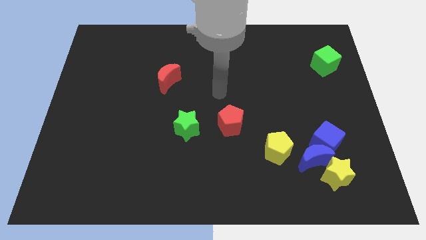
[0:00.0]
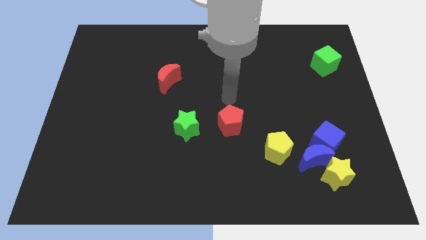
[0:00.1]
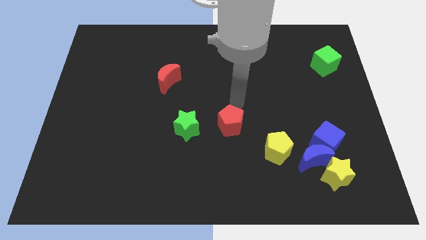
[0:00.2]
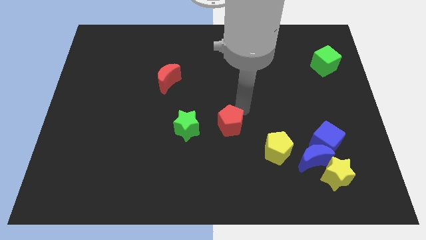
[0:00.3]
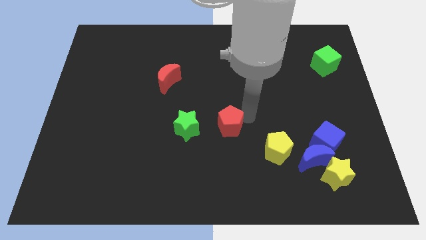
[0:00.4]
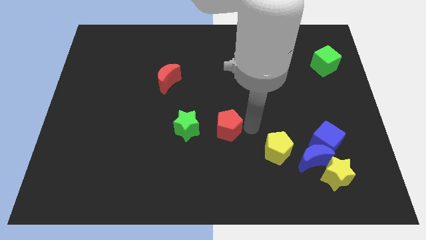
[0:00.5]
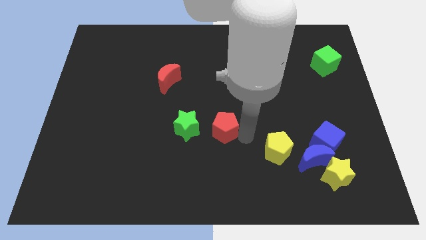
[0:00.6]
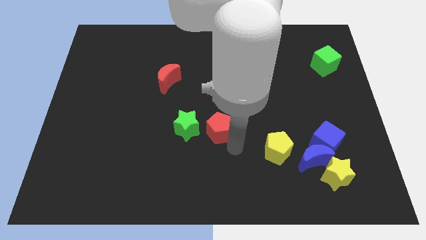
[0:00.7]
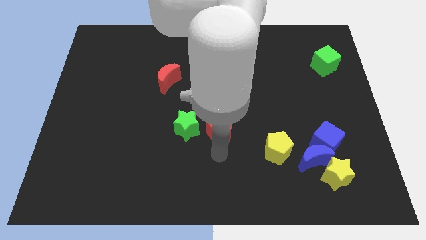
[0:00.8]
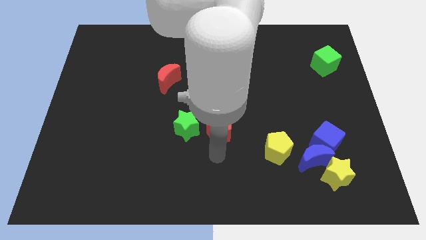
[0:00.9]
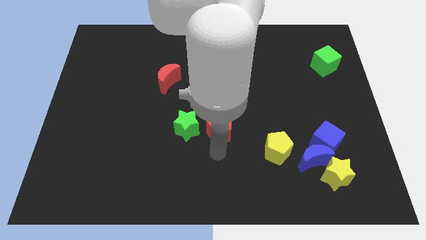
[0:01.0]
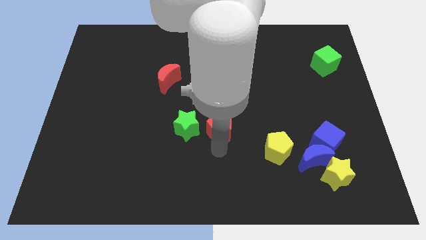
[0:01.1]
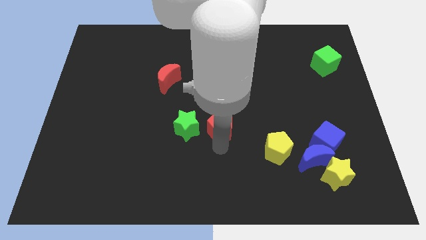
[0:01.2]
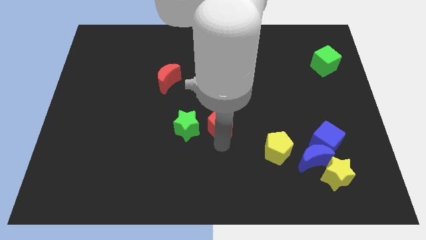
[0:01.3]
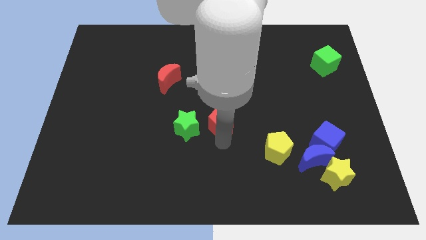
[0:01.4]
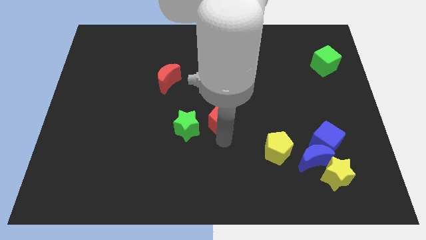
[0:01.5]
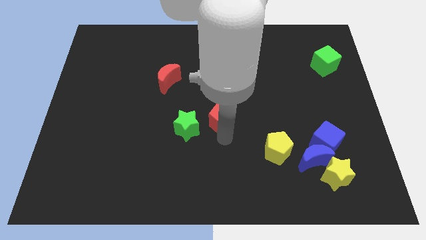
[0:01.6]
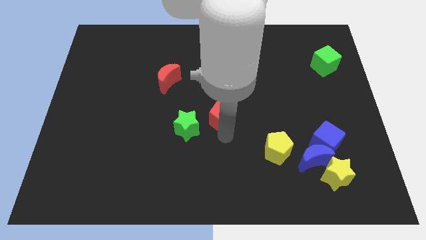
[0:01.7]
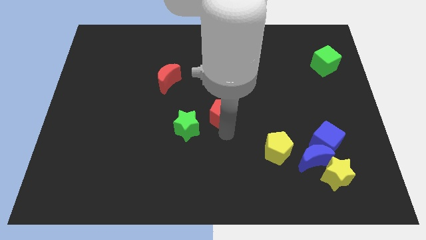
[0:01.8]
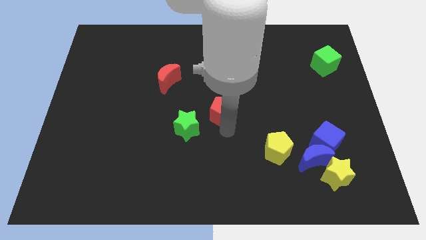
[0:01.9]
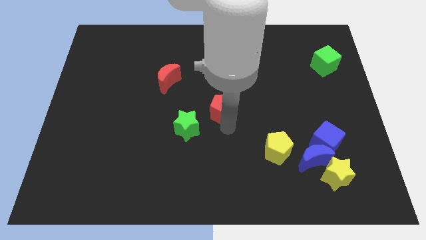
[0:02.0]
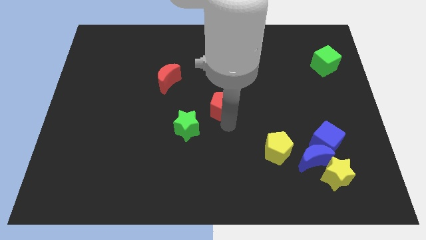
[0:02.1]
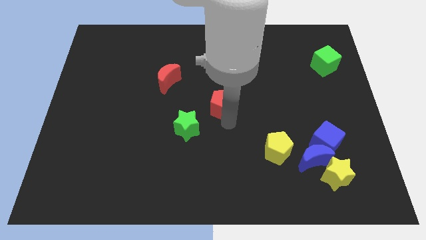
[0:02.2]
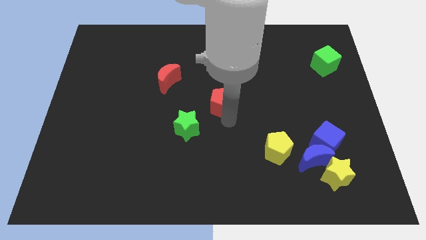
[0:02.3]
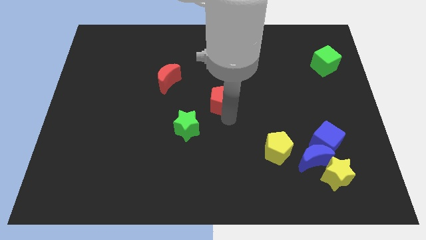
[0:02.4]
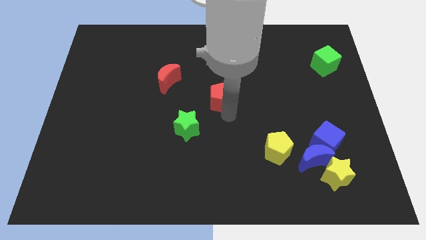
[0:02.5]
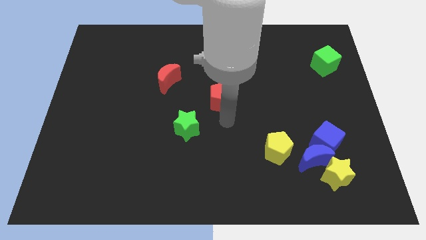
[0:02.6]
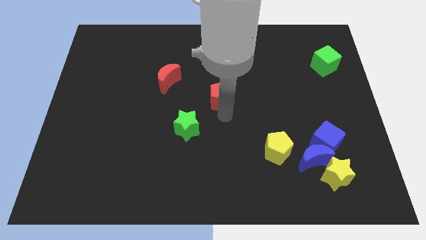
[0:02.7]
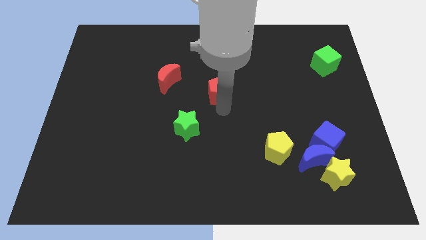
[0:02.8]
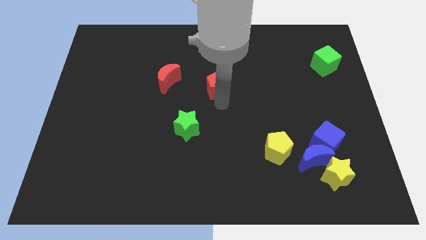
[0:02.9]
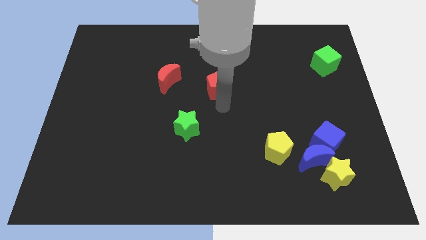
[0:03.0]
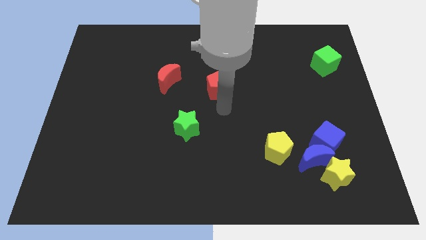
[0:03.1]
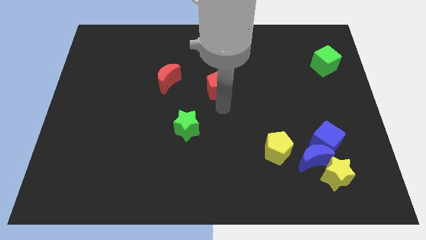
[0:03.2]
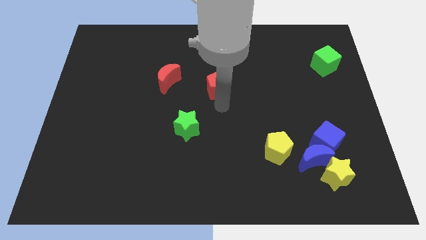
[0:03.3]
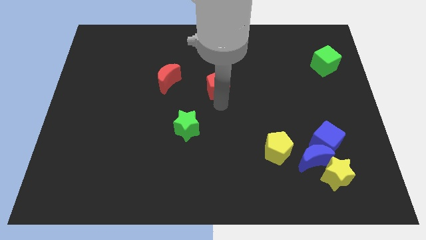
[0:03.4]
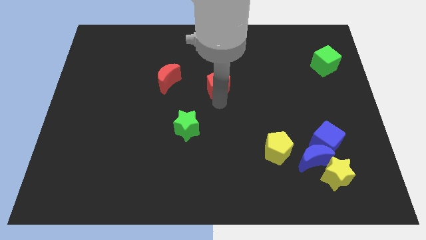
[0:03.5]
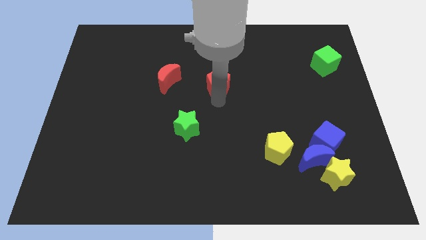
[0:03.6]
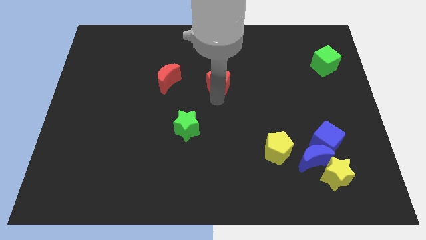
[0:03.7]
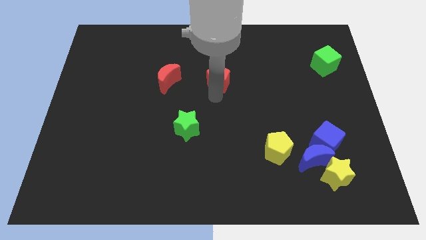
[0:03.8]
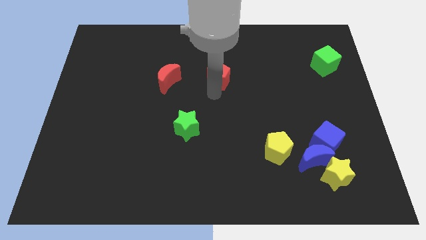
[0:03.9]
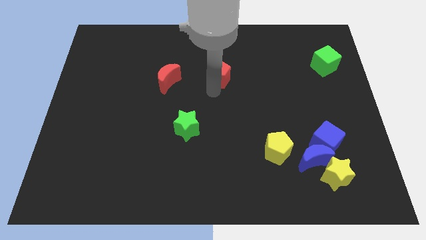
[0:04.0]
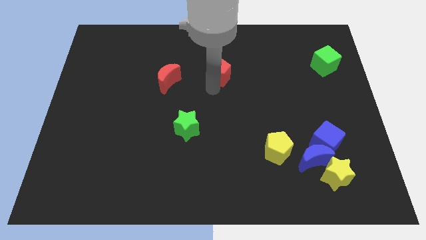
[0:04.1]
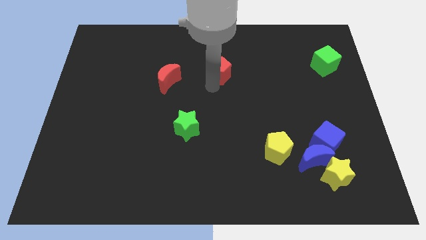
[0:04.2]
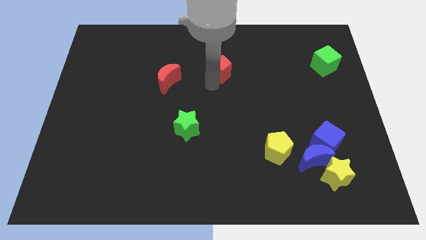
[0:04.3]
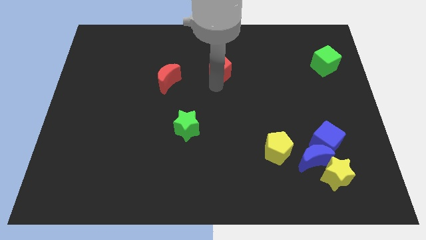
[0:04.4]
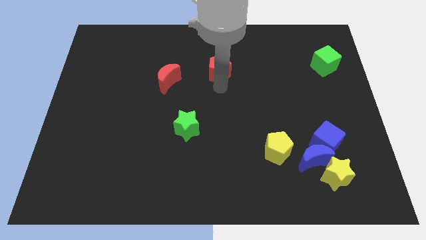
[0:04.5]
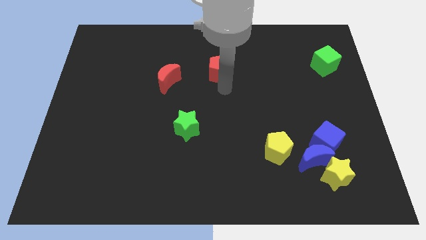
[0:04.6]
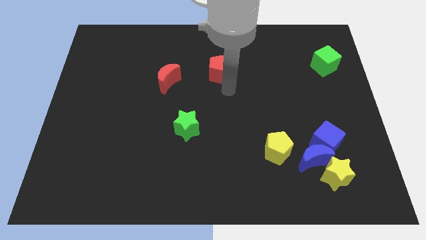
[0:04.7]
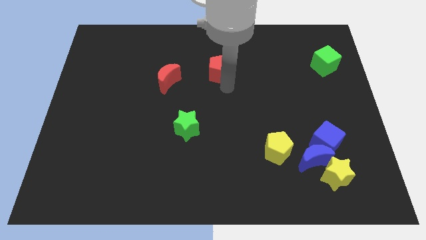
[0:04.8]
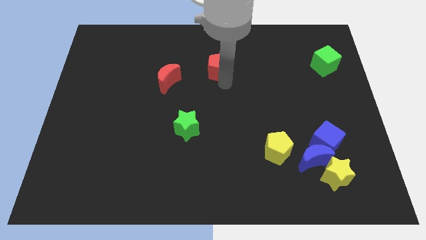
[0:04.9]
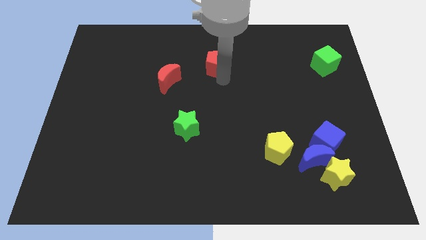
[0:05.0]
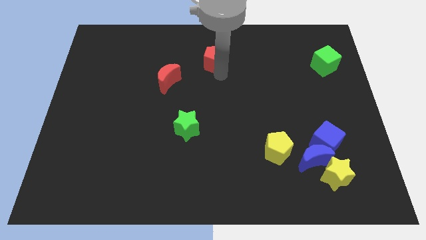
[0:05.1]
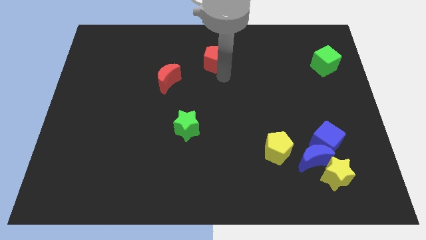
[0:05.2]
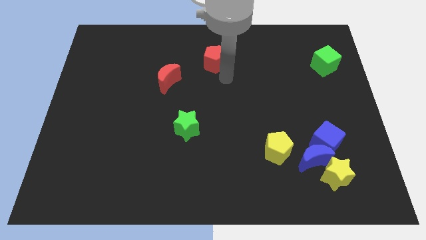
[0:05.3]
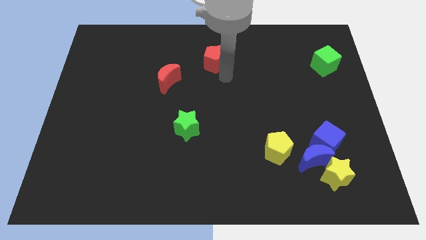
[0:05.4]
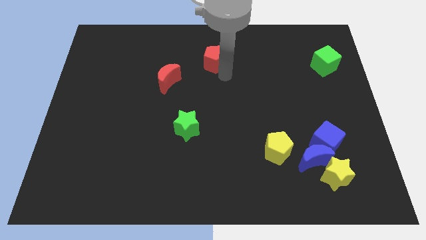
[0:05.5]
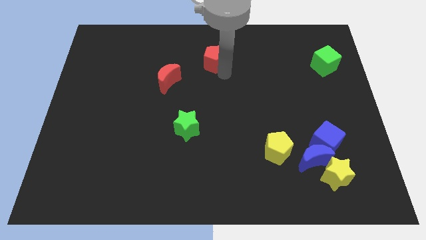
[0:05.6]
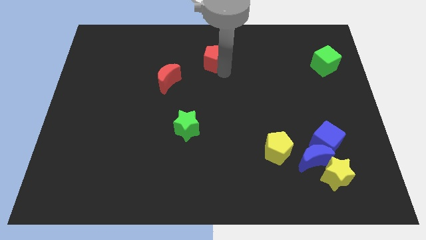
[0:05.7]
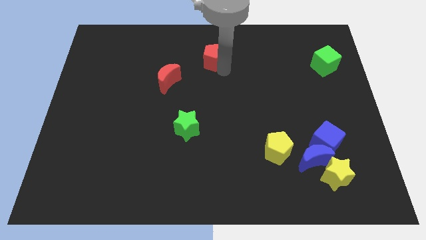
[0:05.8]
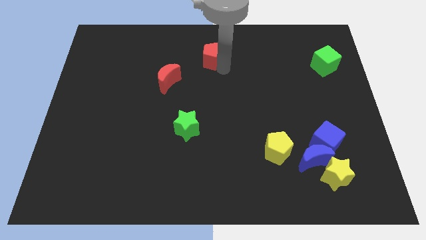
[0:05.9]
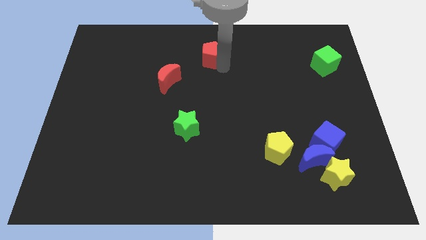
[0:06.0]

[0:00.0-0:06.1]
slide the red pentagon to the top
